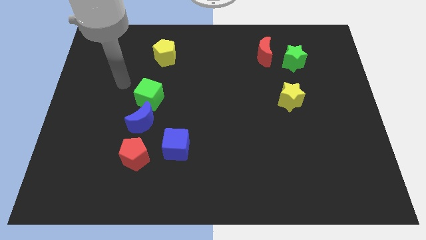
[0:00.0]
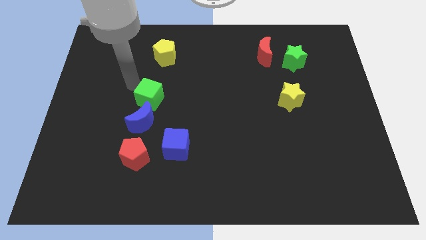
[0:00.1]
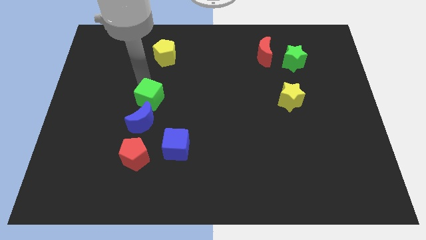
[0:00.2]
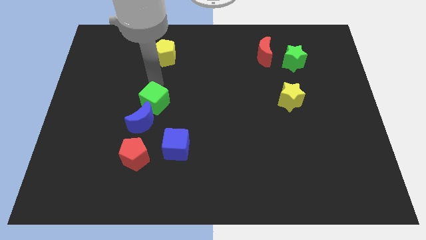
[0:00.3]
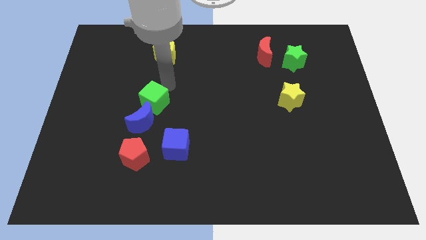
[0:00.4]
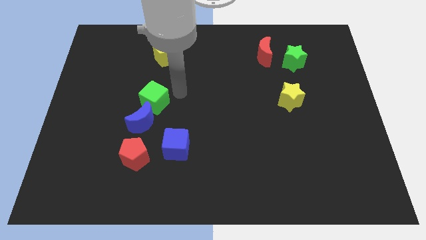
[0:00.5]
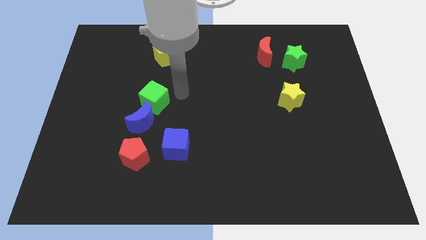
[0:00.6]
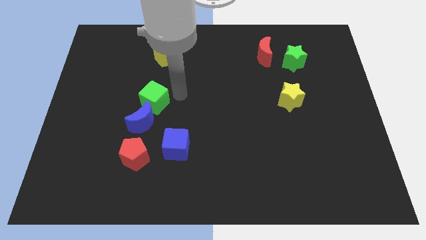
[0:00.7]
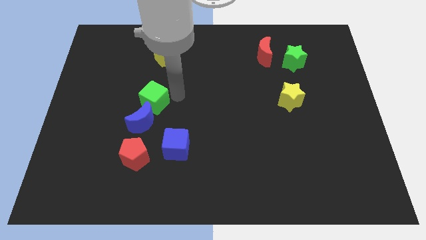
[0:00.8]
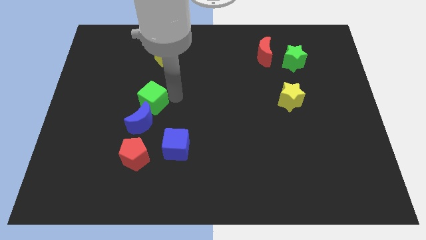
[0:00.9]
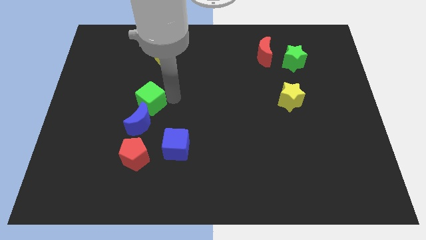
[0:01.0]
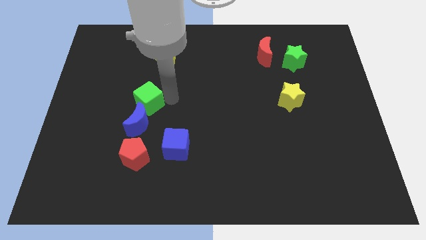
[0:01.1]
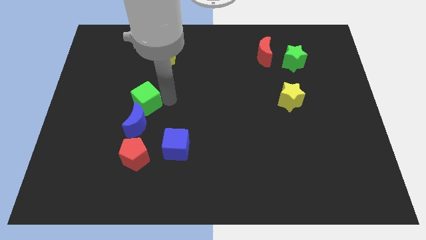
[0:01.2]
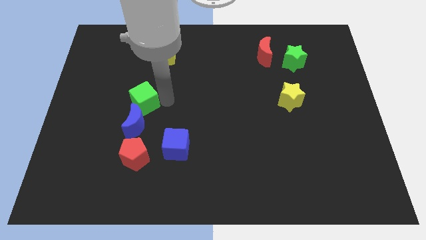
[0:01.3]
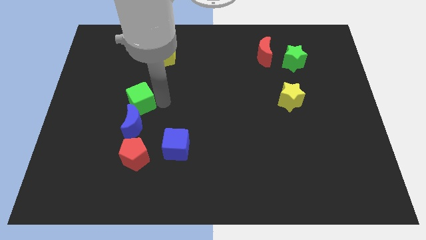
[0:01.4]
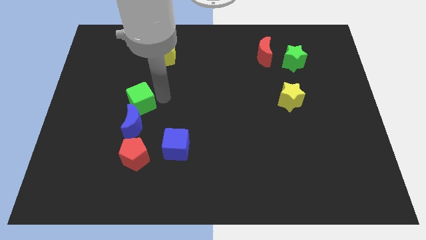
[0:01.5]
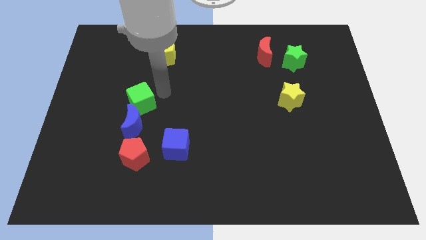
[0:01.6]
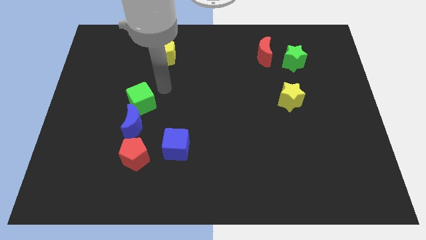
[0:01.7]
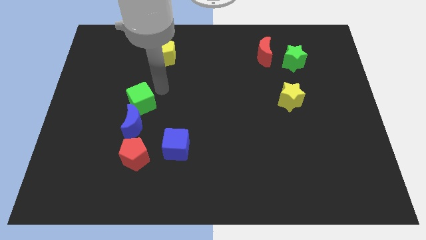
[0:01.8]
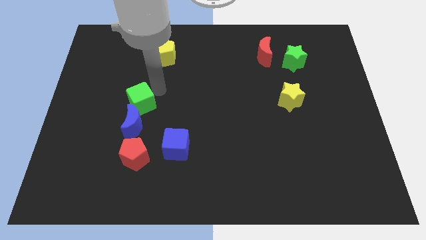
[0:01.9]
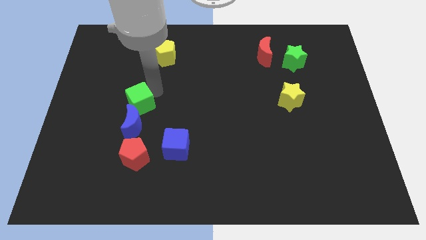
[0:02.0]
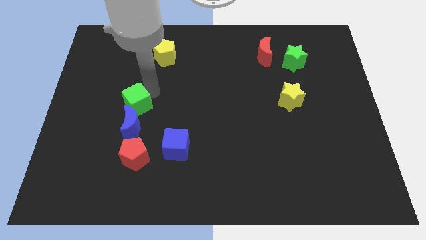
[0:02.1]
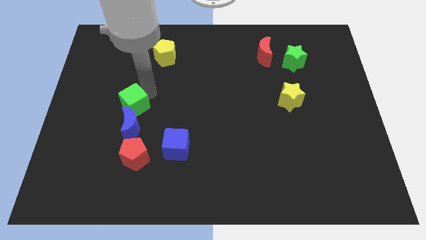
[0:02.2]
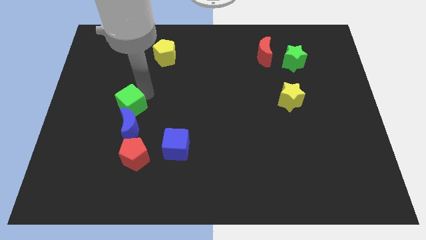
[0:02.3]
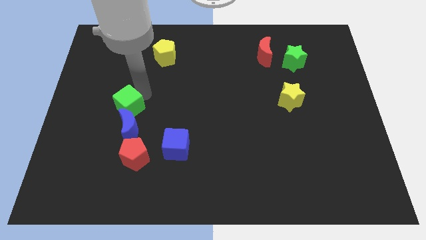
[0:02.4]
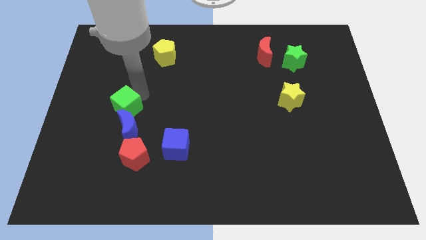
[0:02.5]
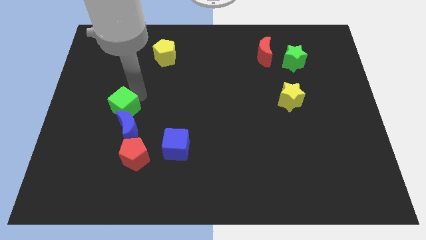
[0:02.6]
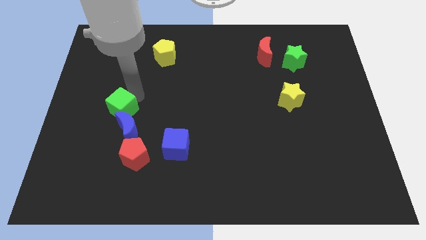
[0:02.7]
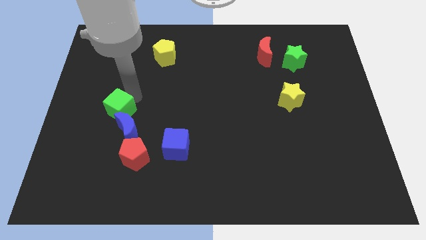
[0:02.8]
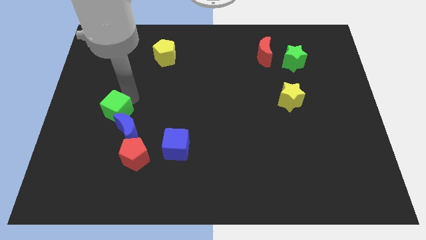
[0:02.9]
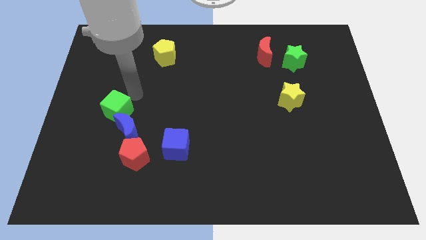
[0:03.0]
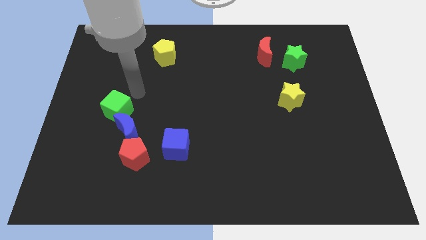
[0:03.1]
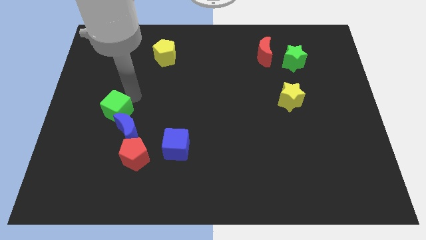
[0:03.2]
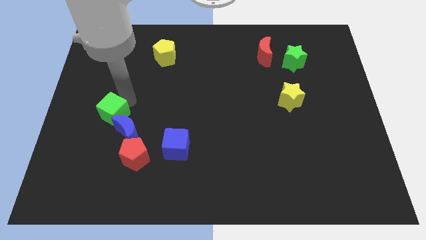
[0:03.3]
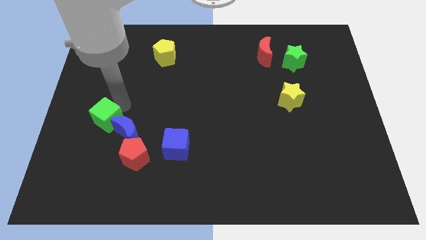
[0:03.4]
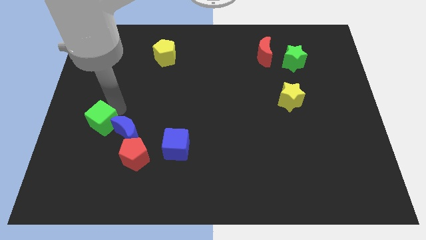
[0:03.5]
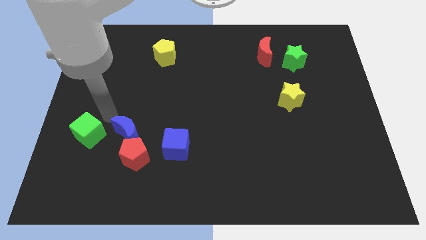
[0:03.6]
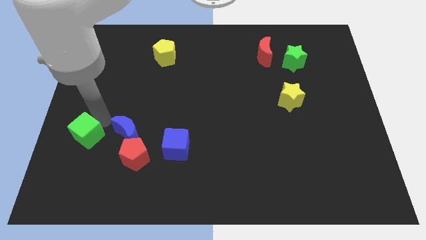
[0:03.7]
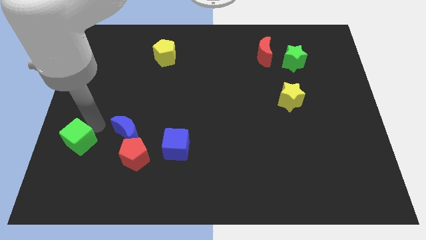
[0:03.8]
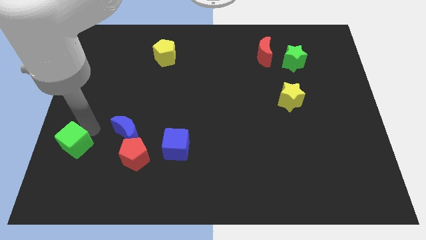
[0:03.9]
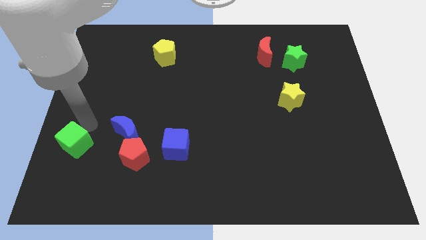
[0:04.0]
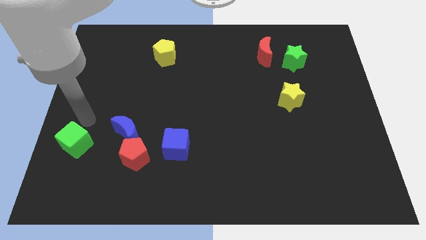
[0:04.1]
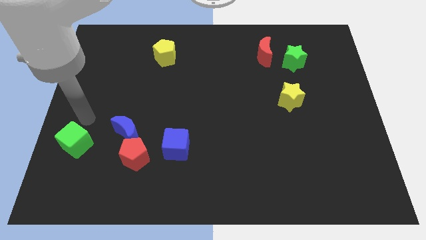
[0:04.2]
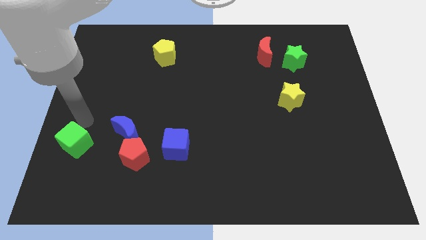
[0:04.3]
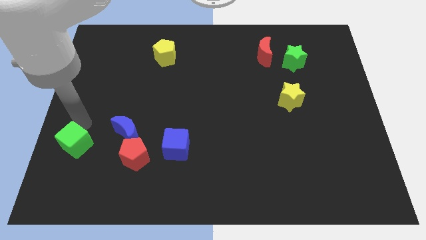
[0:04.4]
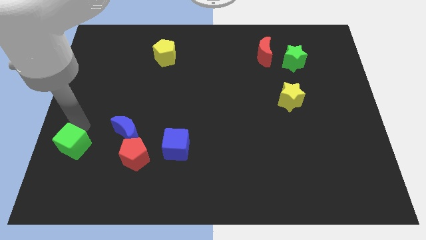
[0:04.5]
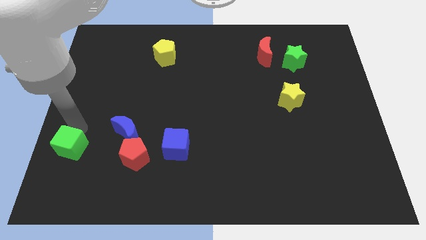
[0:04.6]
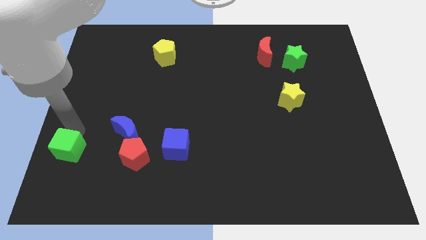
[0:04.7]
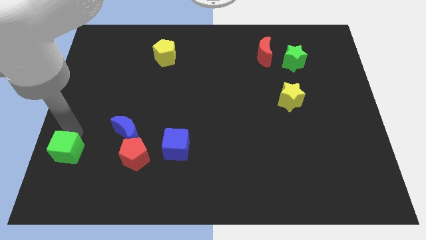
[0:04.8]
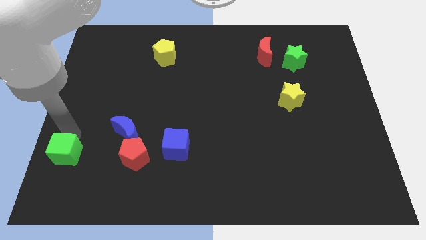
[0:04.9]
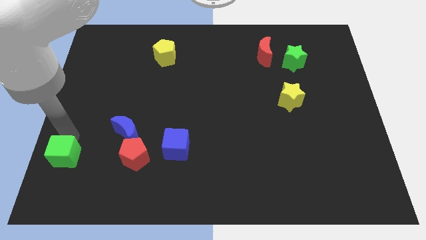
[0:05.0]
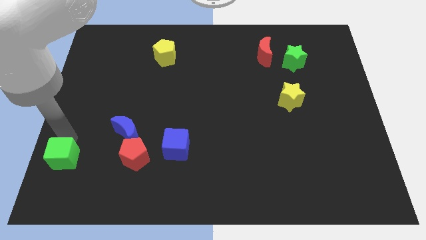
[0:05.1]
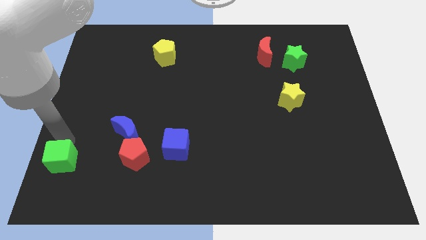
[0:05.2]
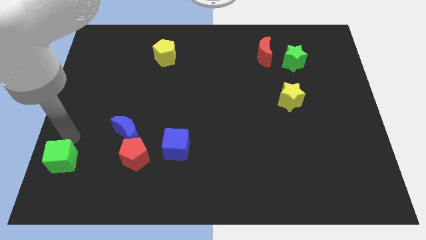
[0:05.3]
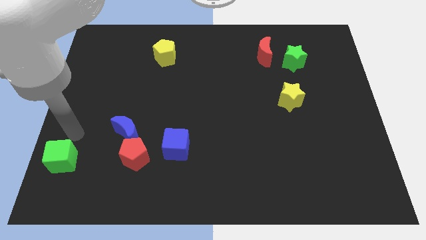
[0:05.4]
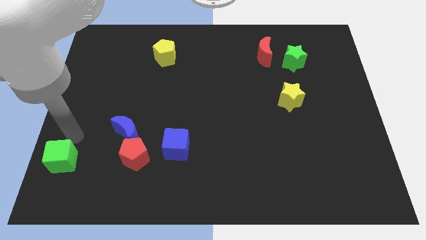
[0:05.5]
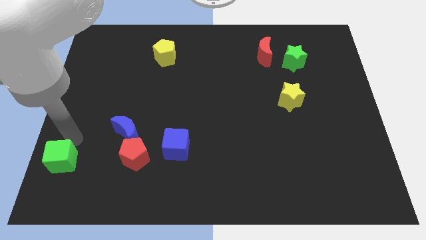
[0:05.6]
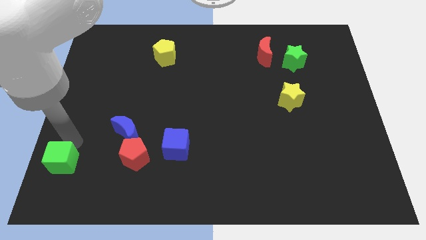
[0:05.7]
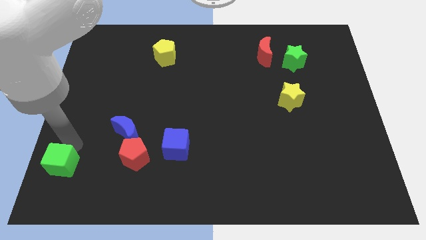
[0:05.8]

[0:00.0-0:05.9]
slide the green cube to the bottom left of the board
